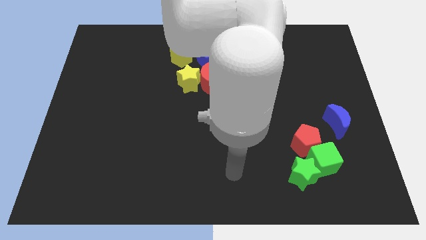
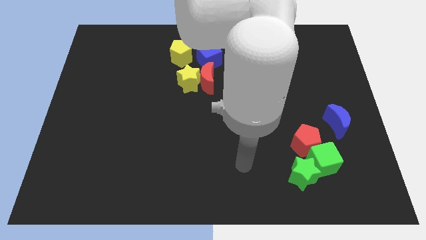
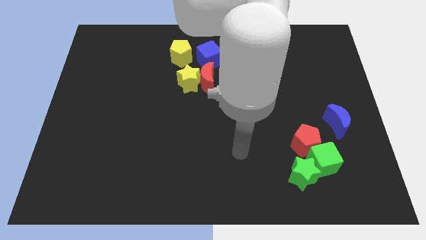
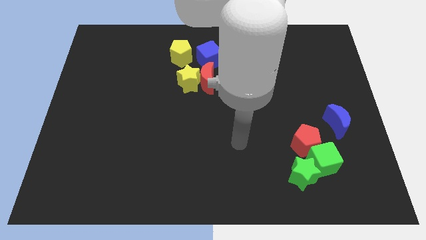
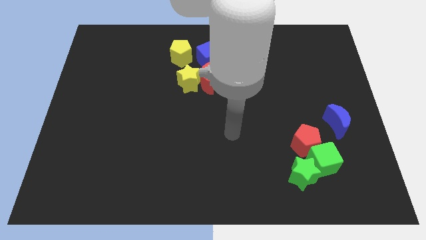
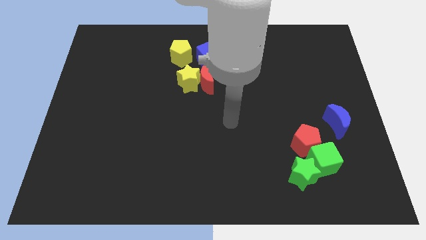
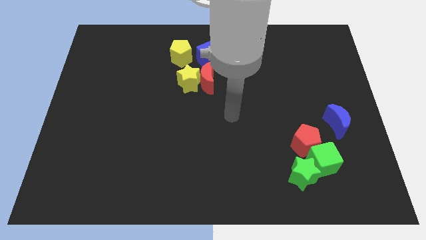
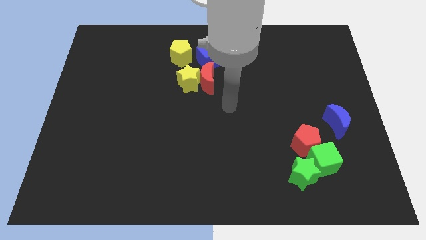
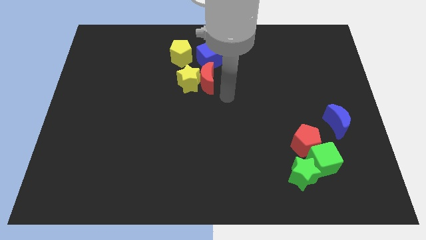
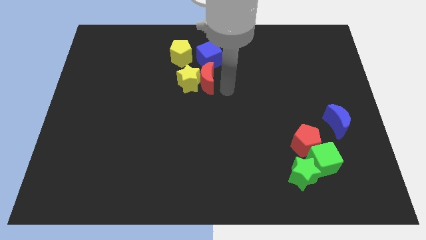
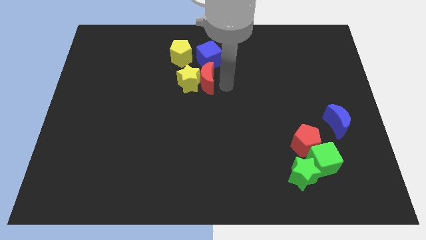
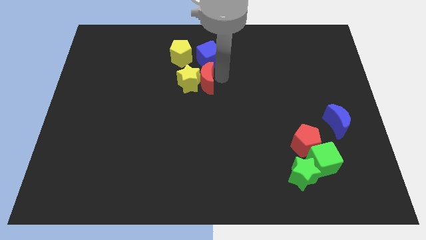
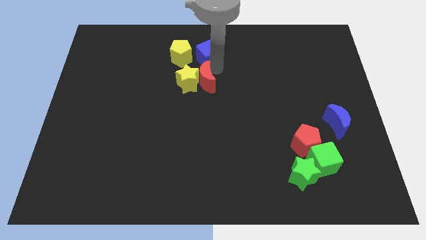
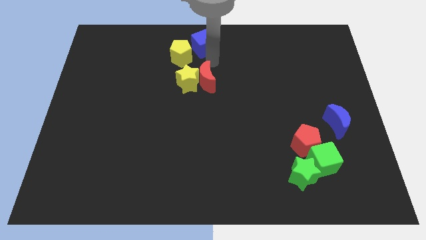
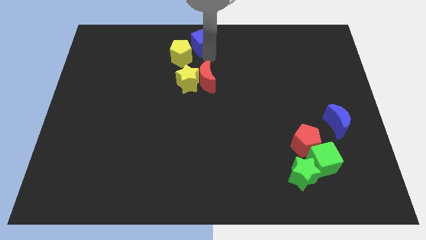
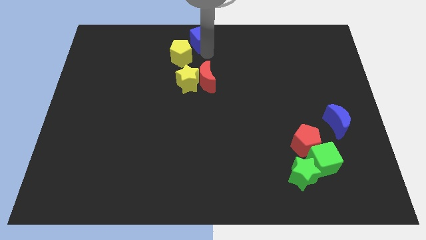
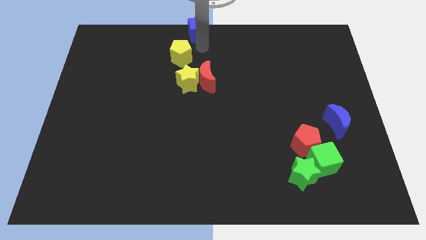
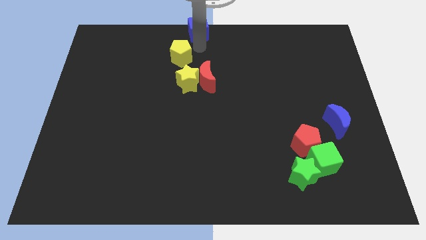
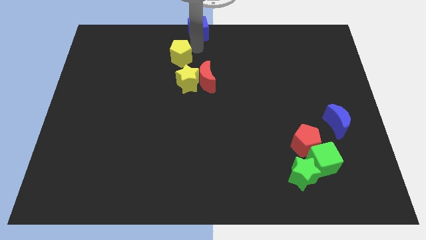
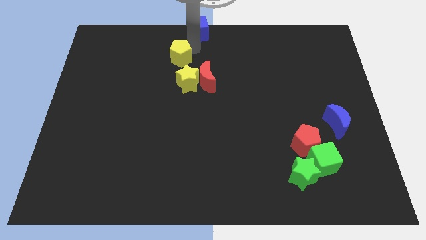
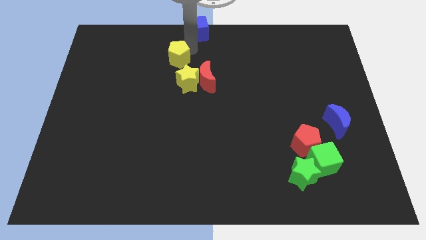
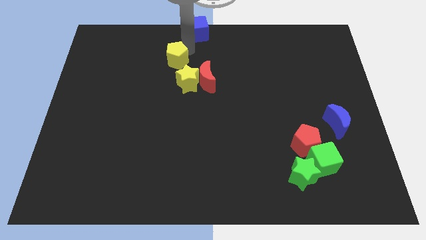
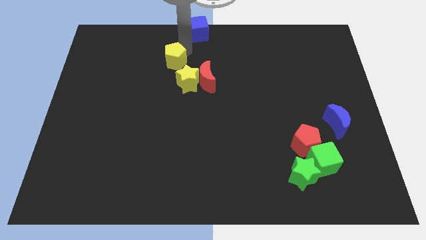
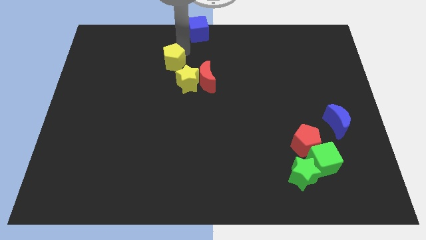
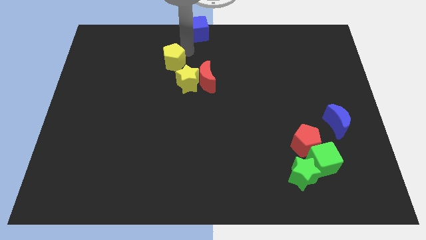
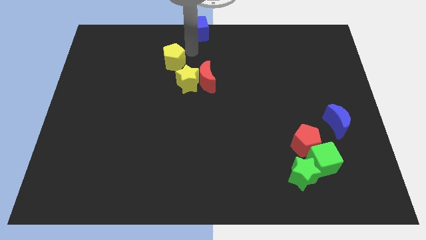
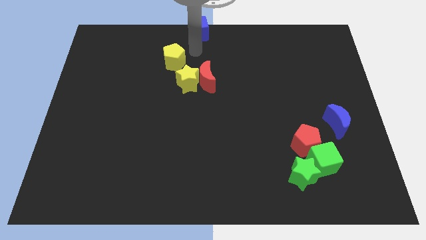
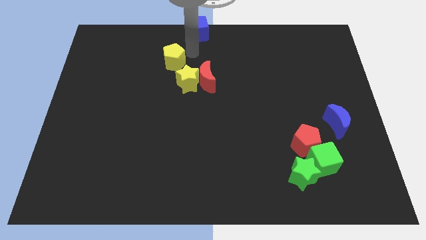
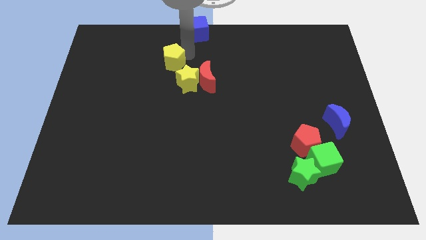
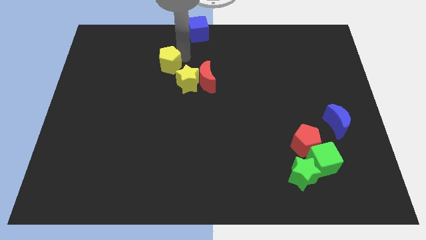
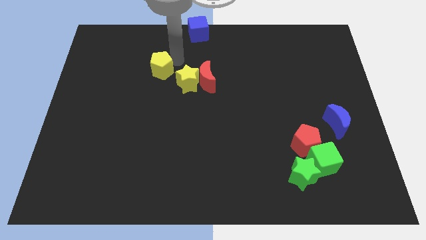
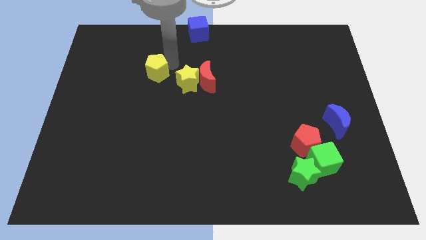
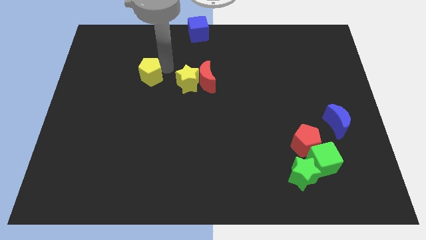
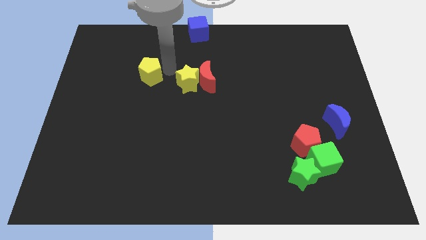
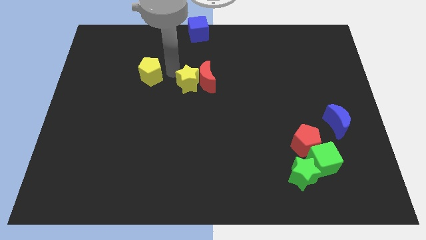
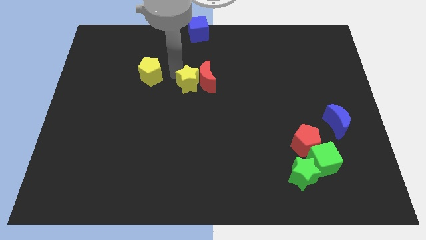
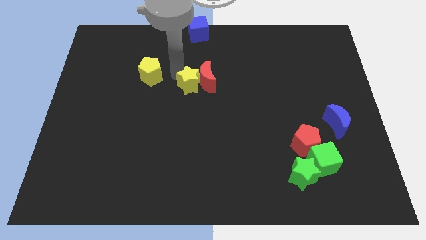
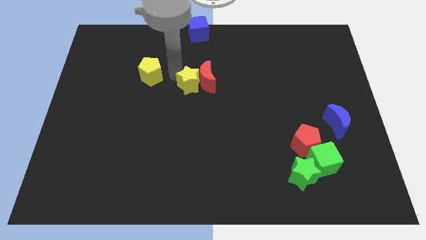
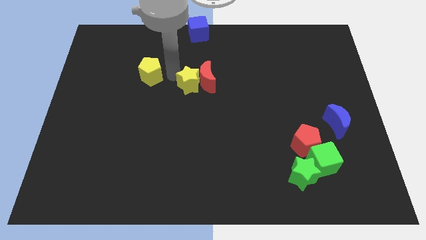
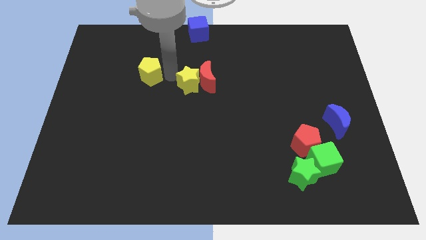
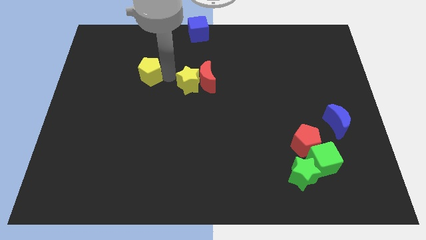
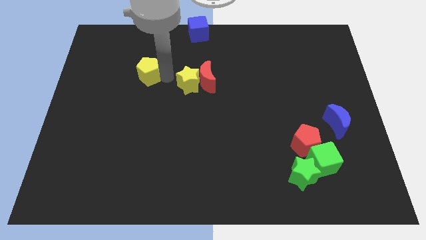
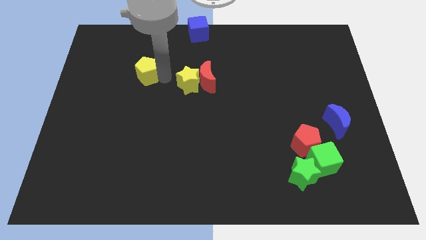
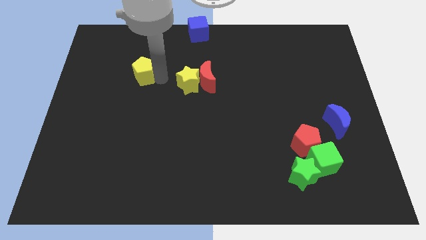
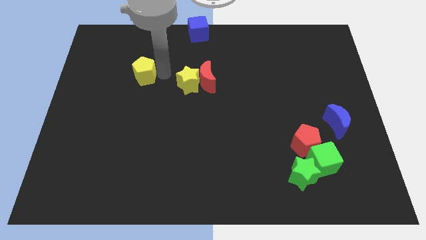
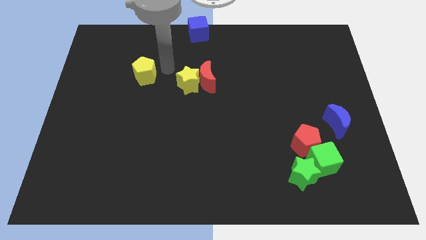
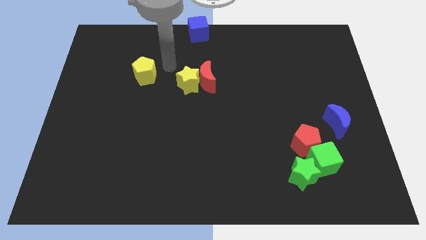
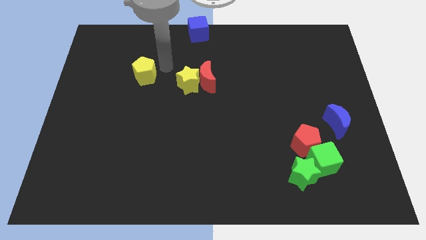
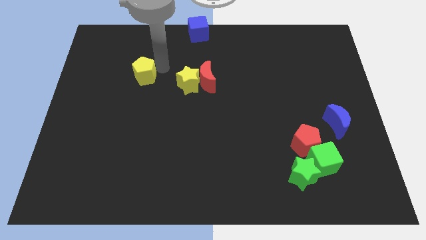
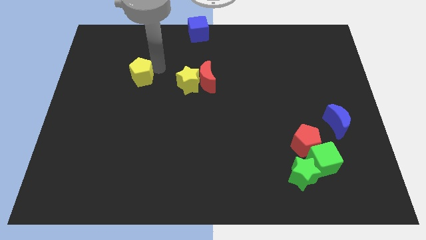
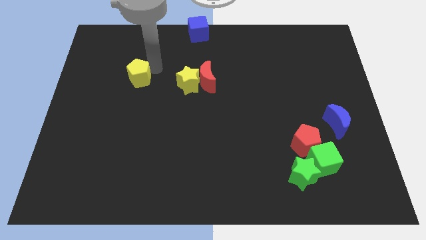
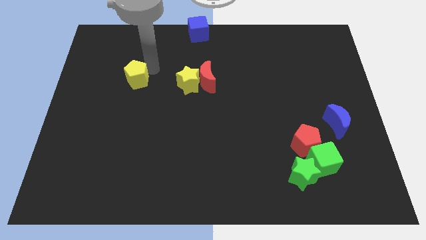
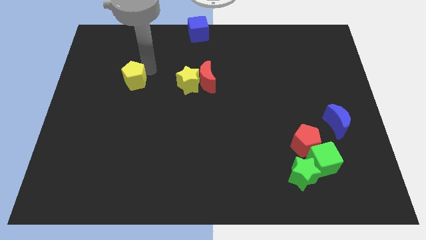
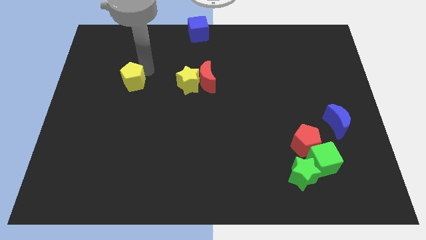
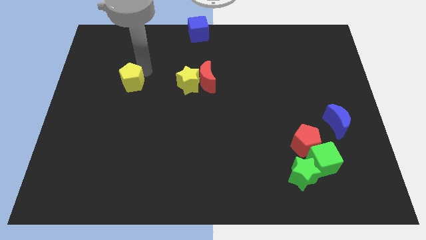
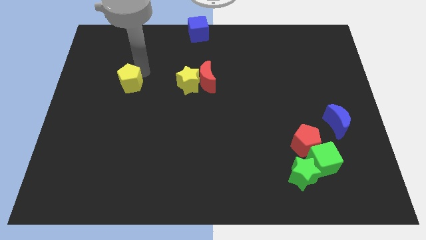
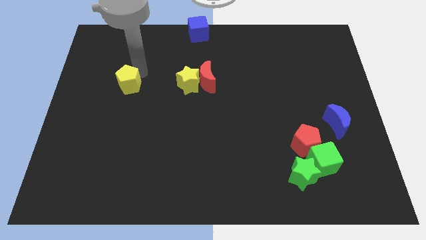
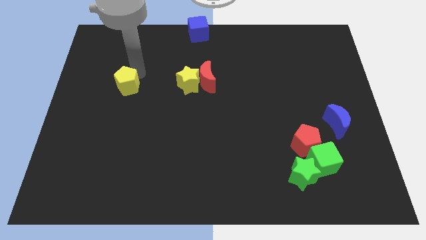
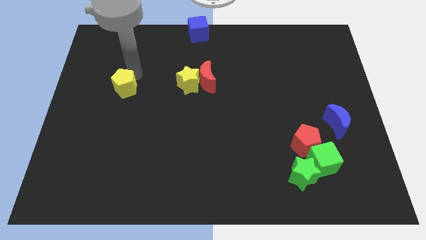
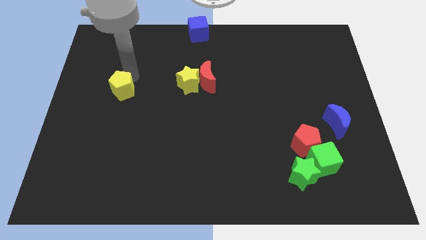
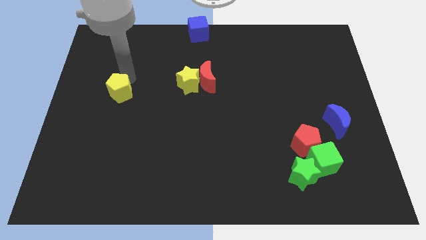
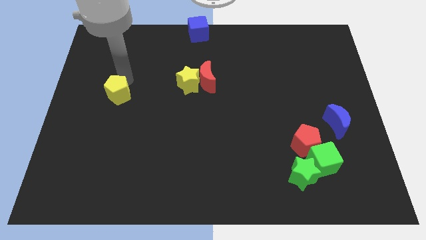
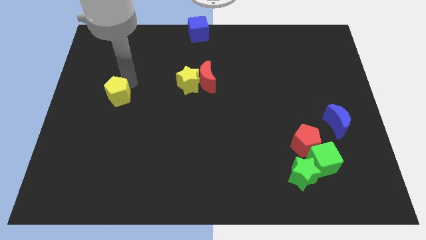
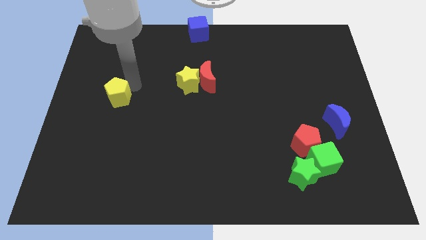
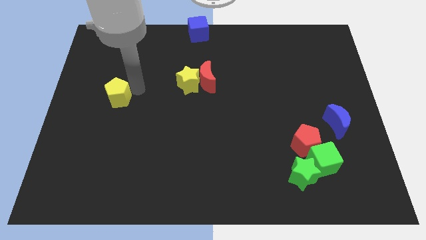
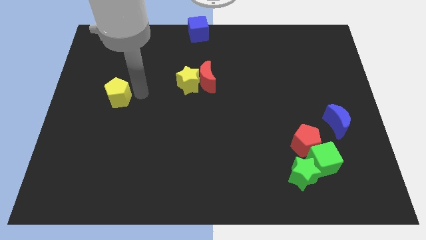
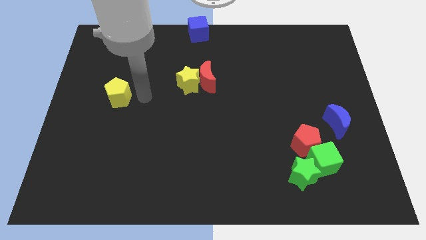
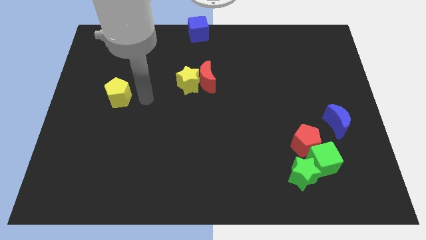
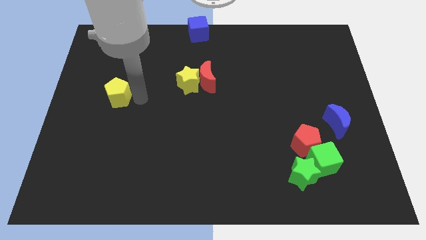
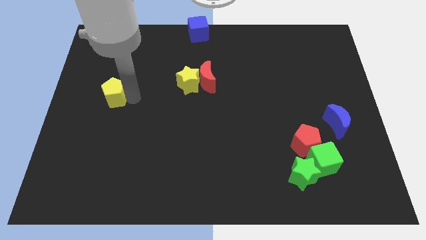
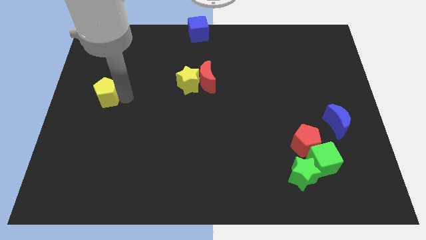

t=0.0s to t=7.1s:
put the yellow pentagon to the left side
